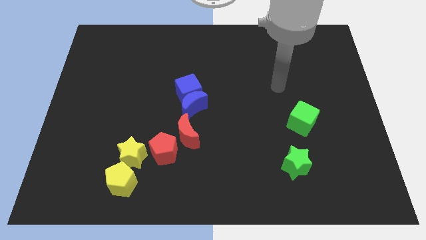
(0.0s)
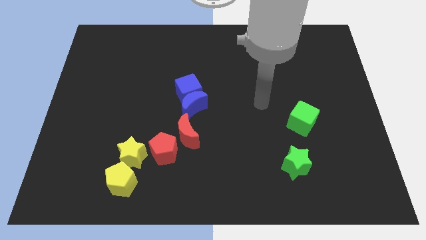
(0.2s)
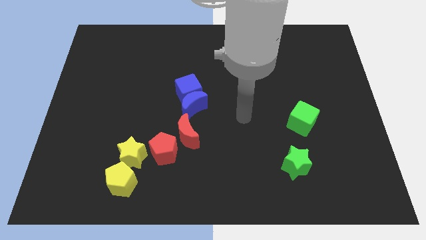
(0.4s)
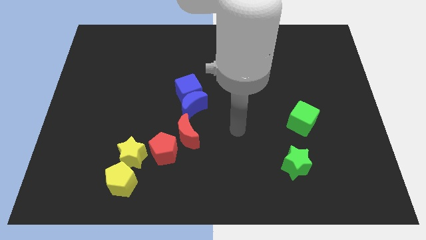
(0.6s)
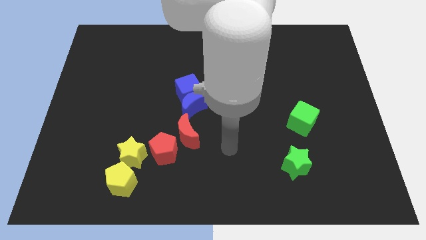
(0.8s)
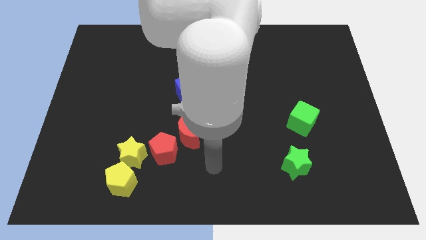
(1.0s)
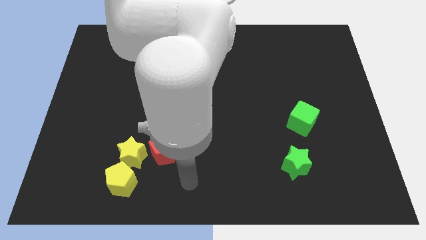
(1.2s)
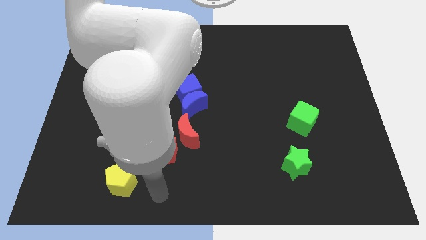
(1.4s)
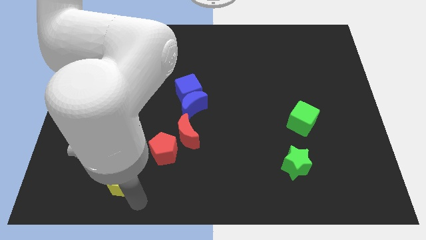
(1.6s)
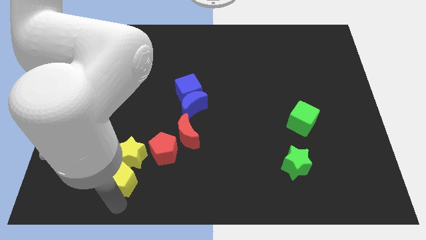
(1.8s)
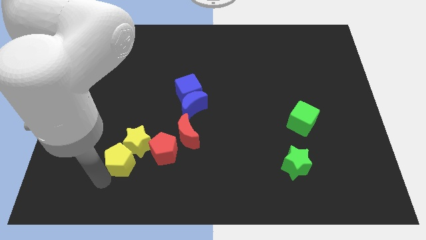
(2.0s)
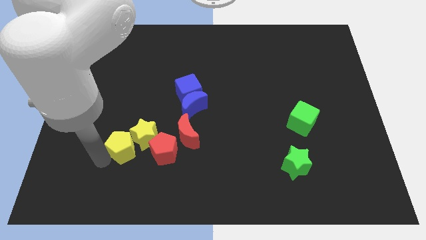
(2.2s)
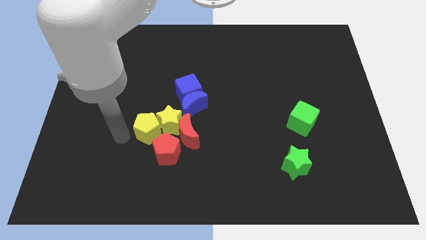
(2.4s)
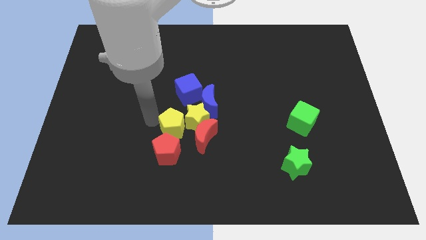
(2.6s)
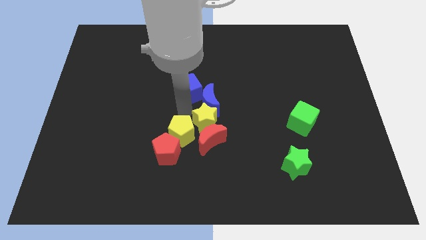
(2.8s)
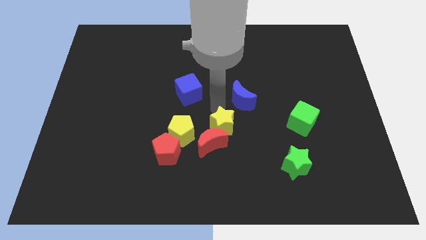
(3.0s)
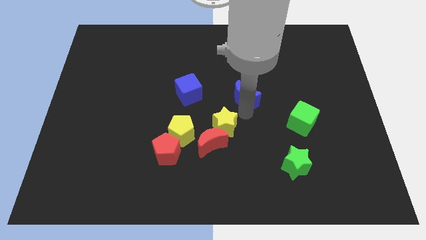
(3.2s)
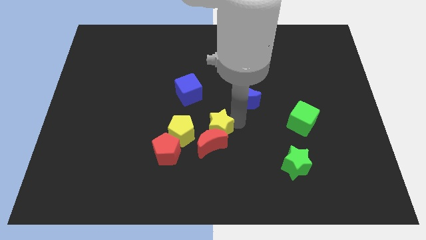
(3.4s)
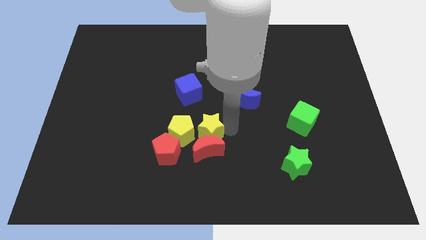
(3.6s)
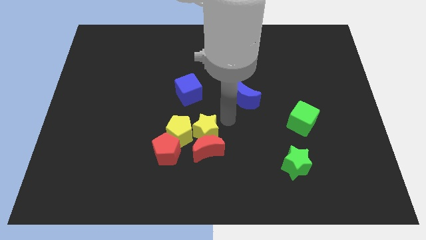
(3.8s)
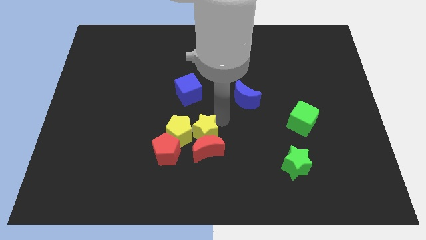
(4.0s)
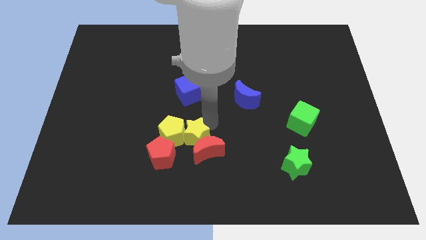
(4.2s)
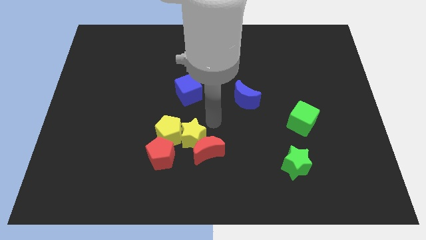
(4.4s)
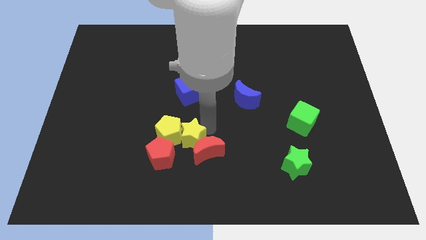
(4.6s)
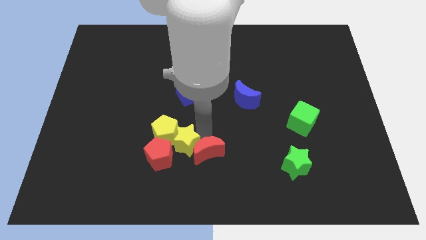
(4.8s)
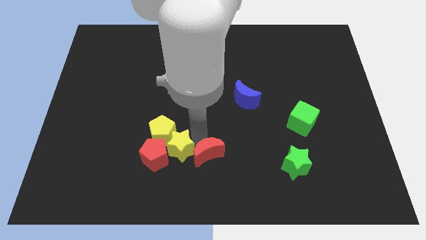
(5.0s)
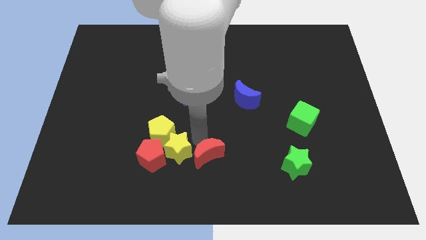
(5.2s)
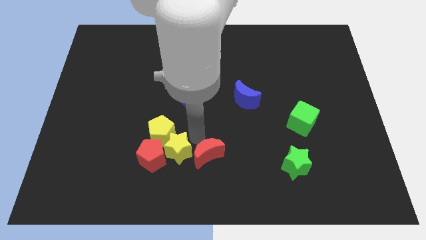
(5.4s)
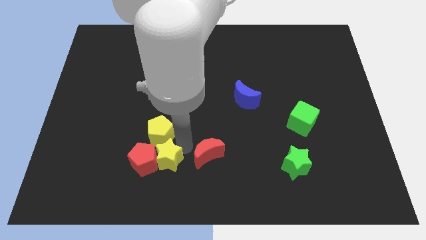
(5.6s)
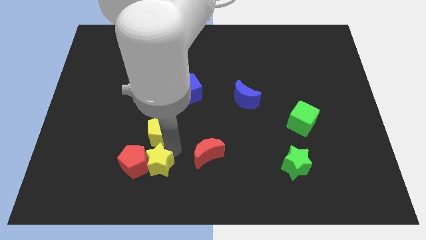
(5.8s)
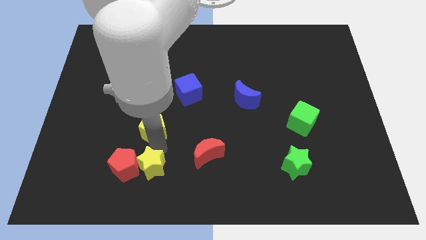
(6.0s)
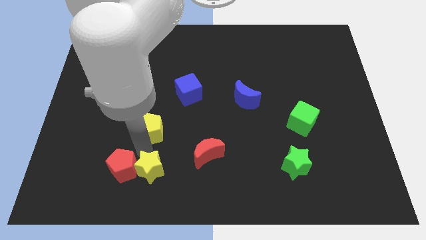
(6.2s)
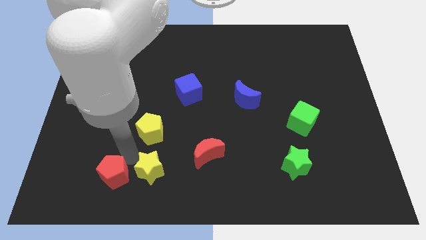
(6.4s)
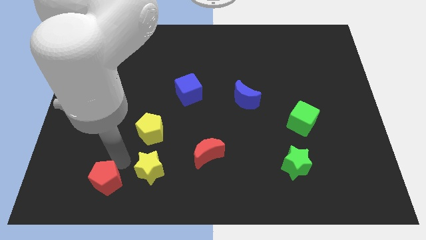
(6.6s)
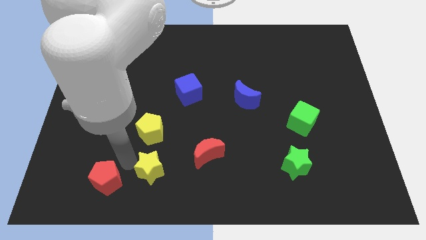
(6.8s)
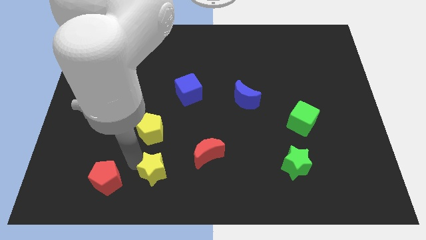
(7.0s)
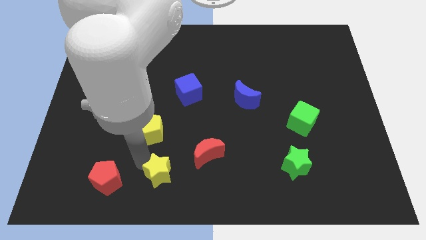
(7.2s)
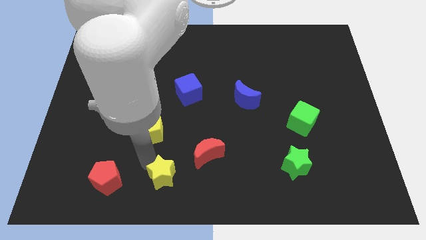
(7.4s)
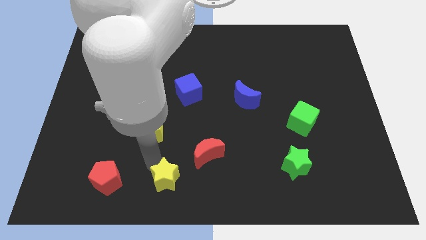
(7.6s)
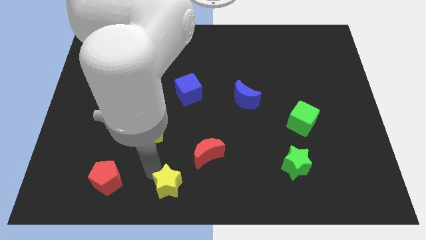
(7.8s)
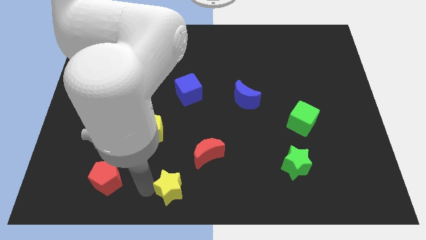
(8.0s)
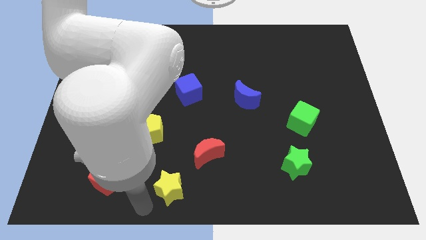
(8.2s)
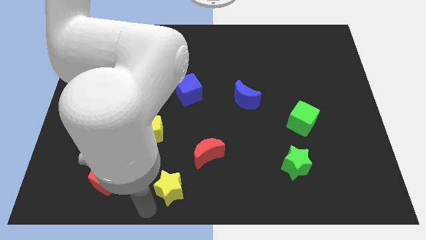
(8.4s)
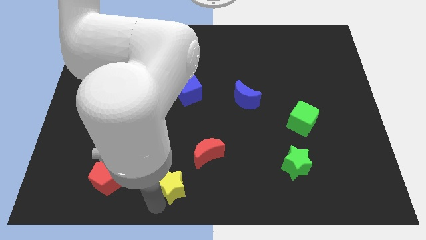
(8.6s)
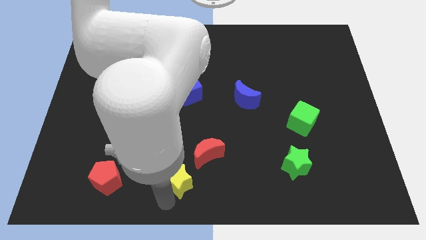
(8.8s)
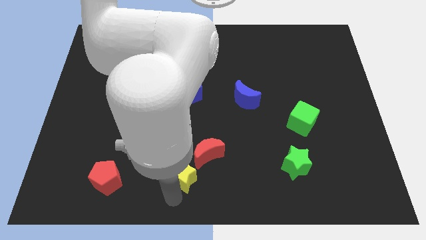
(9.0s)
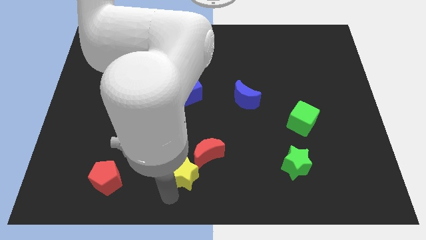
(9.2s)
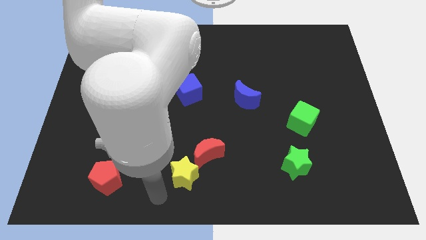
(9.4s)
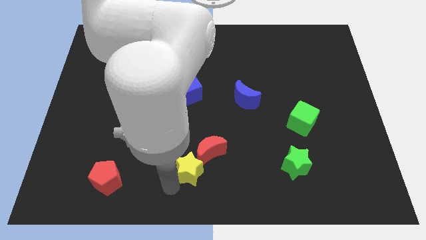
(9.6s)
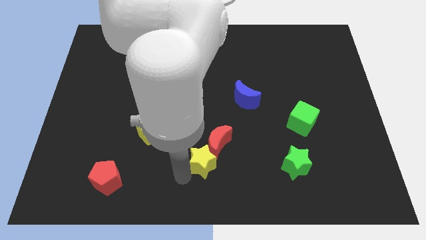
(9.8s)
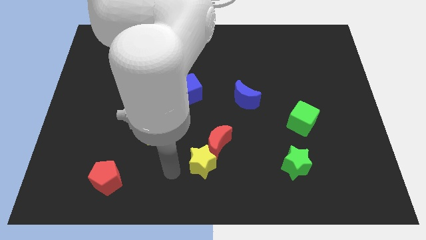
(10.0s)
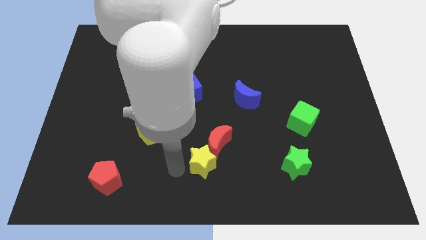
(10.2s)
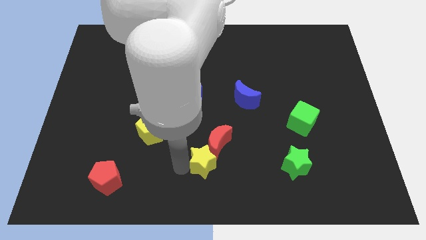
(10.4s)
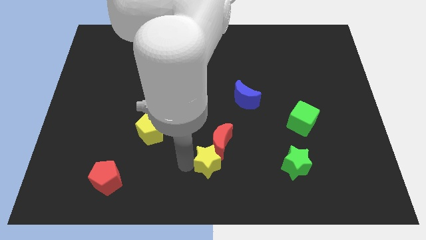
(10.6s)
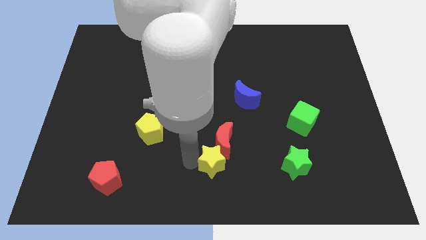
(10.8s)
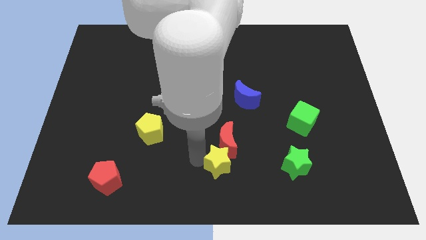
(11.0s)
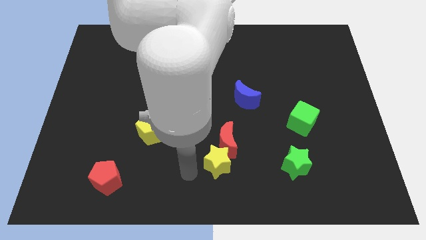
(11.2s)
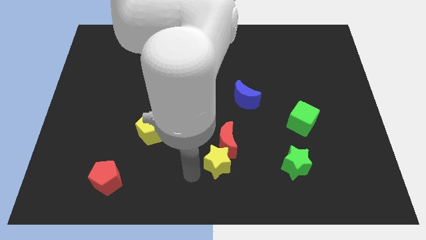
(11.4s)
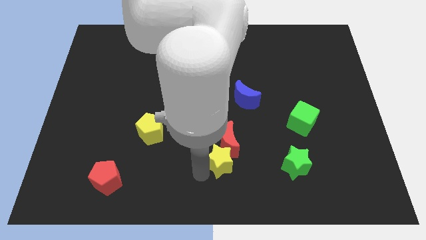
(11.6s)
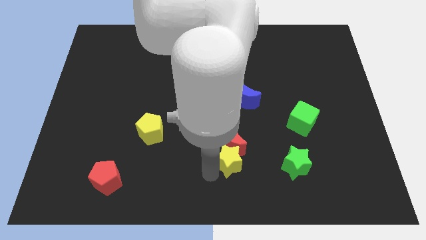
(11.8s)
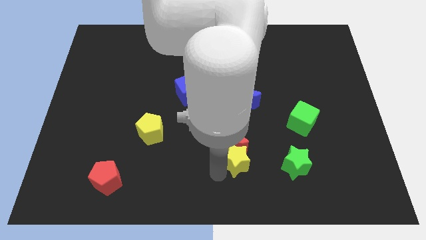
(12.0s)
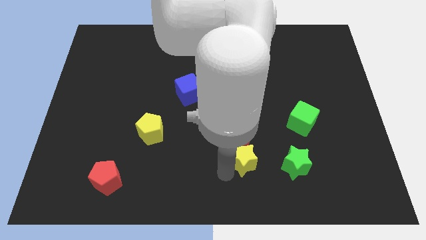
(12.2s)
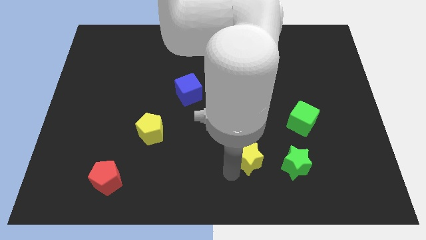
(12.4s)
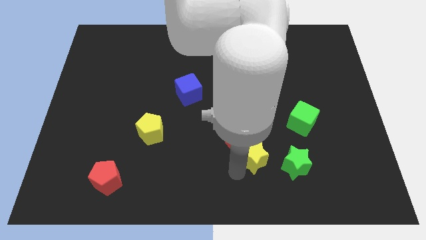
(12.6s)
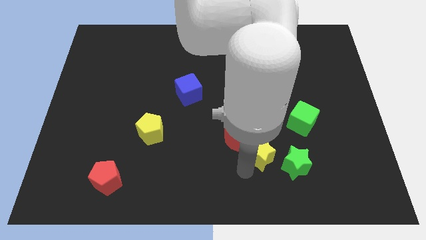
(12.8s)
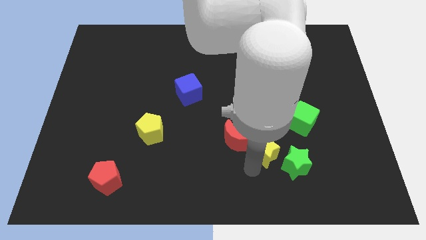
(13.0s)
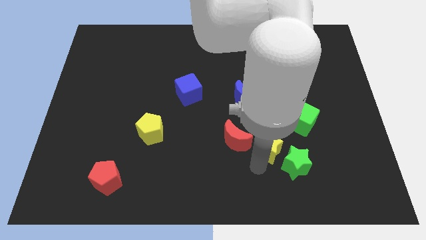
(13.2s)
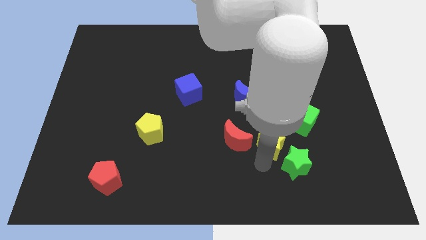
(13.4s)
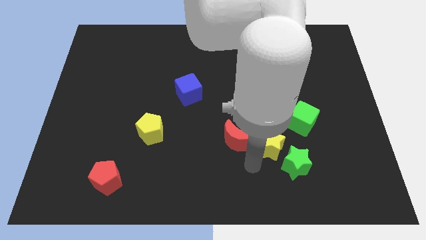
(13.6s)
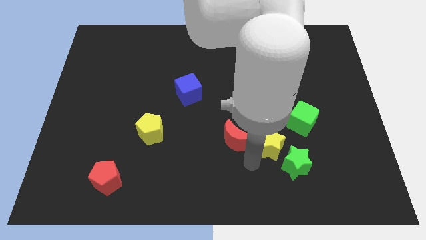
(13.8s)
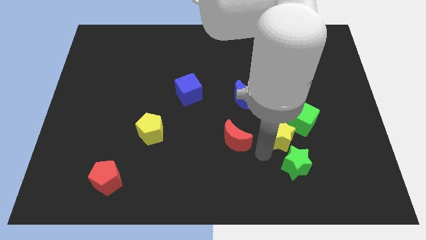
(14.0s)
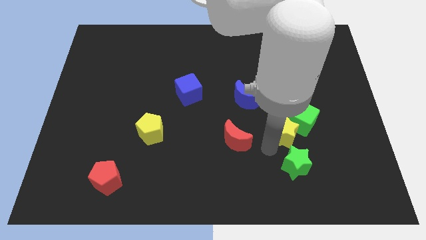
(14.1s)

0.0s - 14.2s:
slide the yellow star towards the green cube

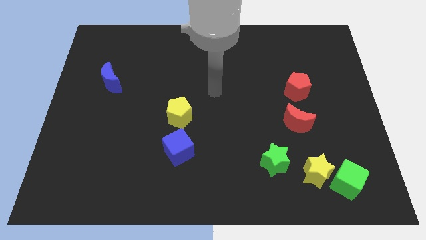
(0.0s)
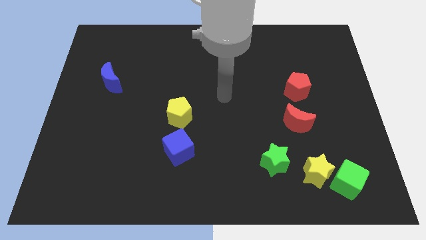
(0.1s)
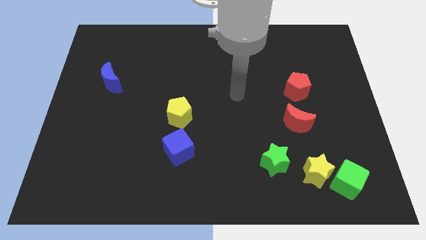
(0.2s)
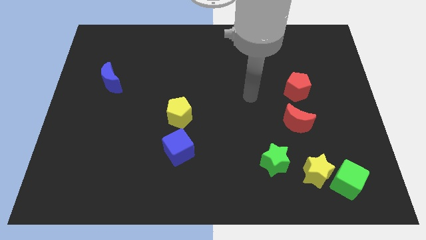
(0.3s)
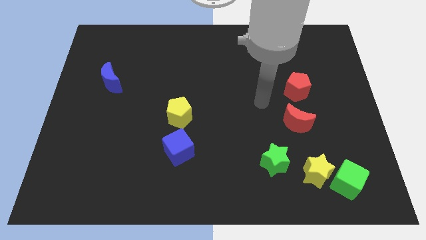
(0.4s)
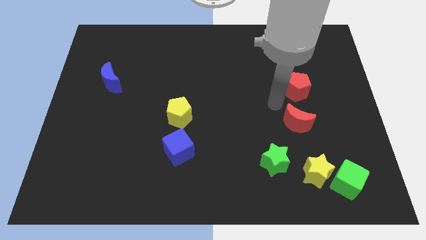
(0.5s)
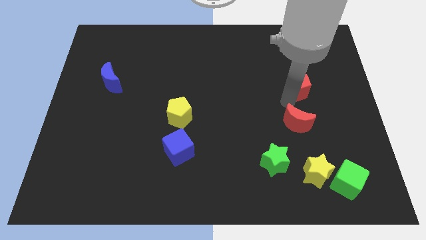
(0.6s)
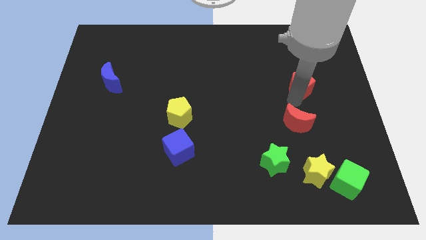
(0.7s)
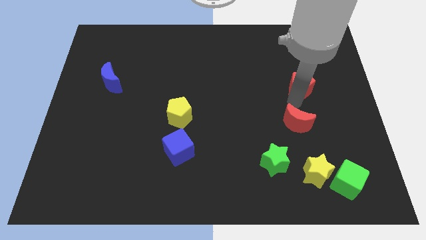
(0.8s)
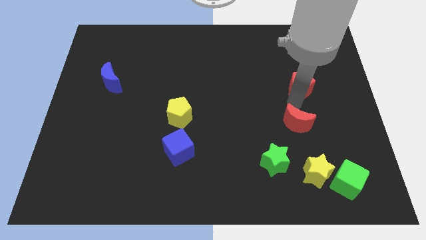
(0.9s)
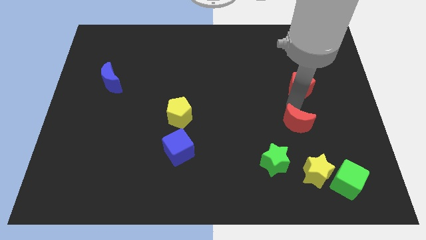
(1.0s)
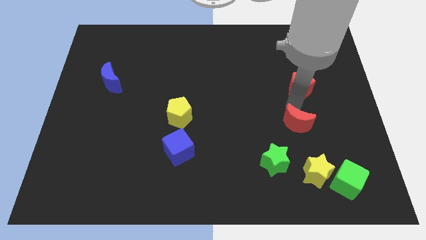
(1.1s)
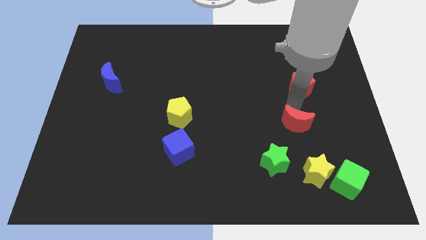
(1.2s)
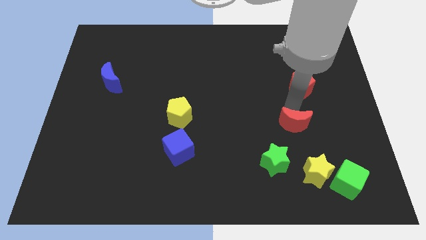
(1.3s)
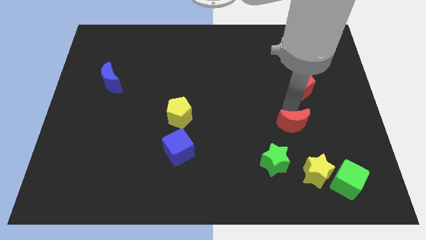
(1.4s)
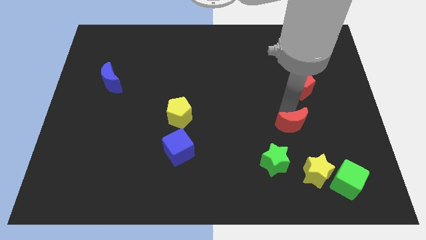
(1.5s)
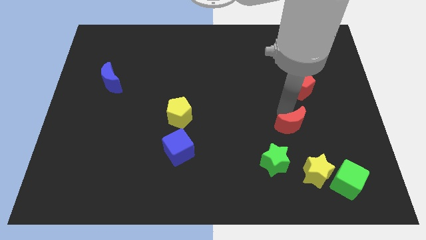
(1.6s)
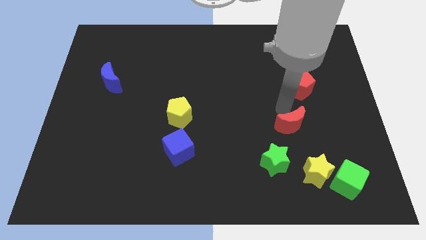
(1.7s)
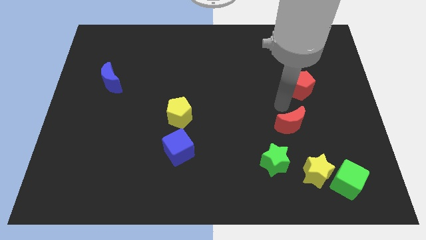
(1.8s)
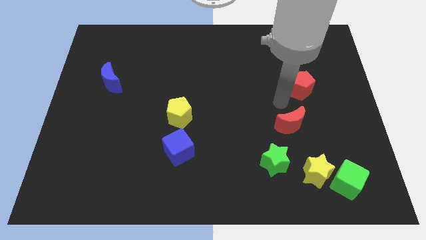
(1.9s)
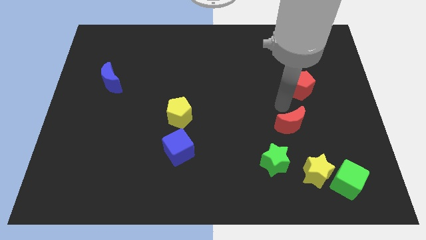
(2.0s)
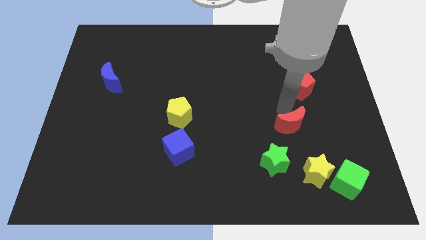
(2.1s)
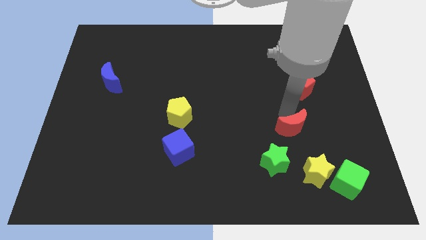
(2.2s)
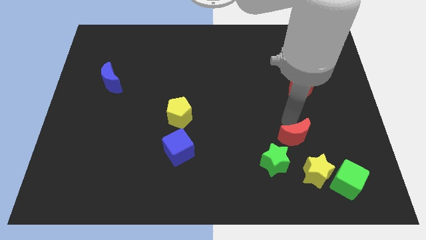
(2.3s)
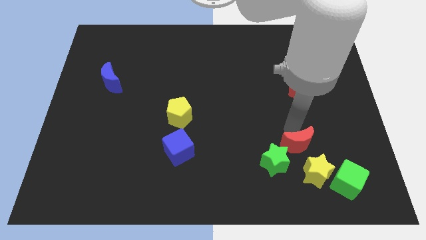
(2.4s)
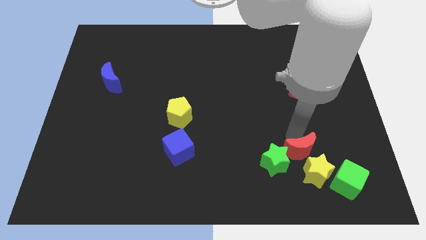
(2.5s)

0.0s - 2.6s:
slide the red moon close to the yellow star
